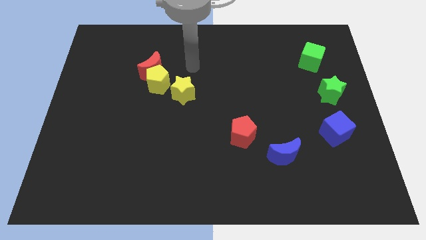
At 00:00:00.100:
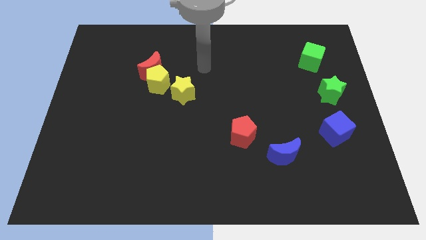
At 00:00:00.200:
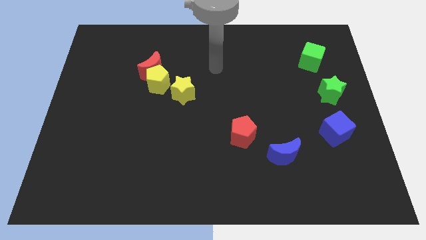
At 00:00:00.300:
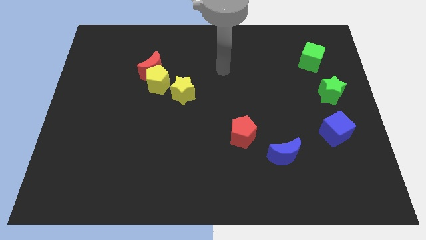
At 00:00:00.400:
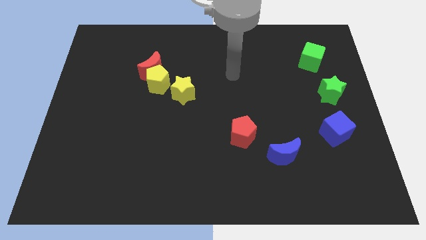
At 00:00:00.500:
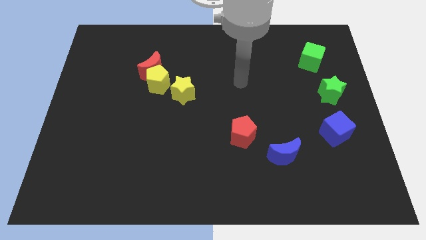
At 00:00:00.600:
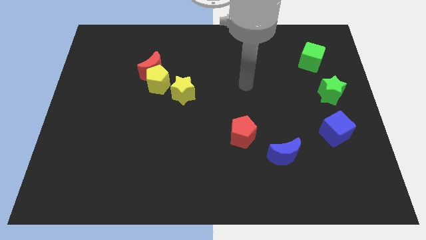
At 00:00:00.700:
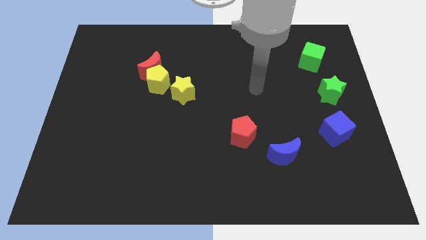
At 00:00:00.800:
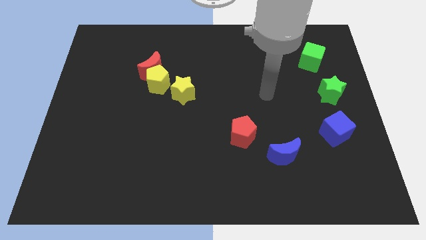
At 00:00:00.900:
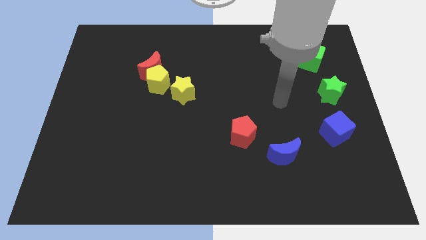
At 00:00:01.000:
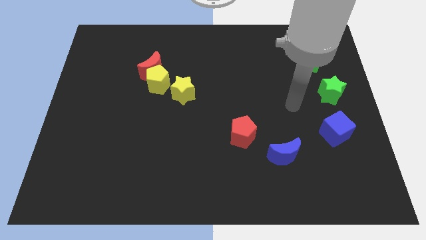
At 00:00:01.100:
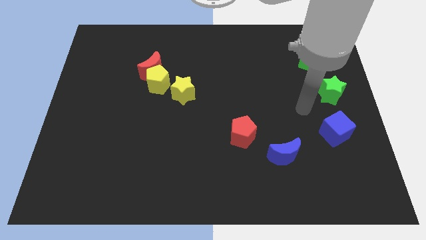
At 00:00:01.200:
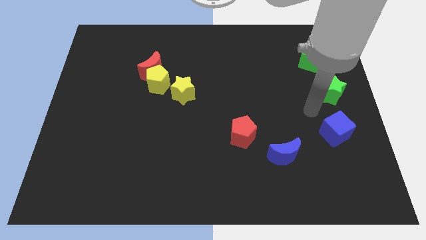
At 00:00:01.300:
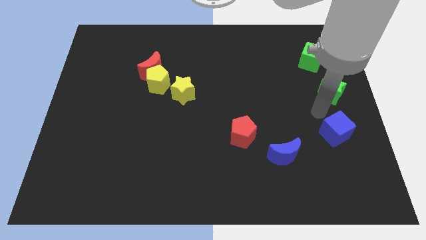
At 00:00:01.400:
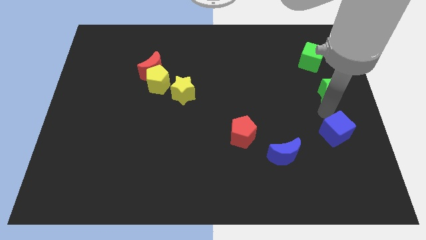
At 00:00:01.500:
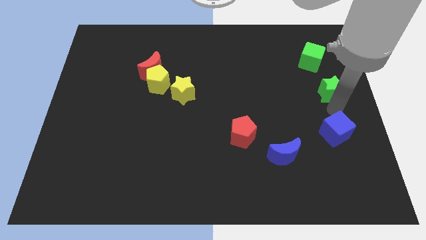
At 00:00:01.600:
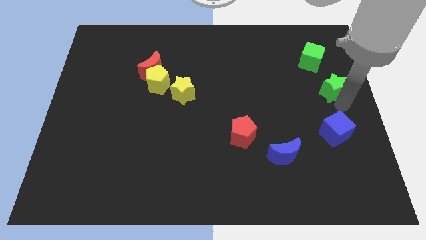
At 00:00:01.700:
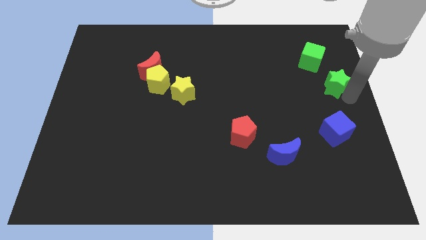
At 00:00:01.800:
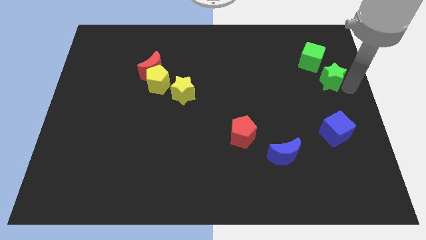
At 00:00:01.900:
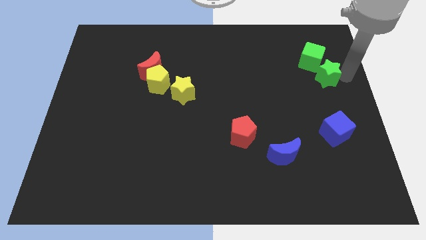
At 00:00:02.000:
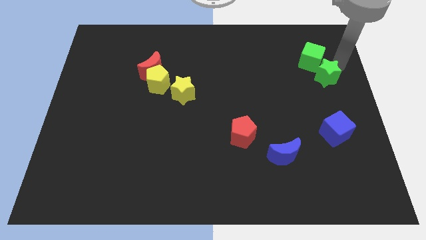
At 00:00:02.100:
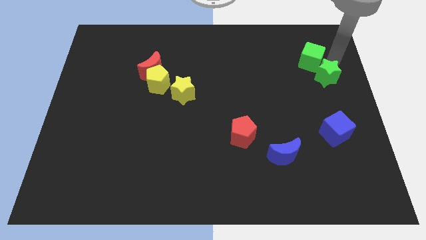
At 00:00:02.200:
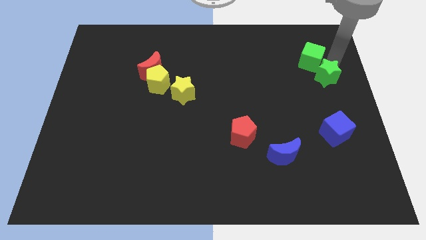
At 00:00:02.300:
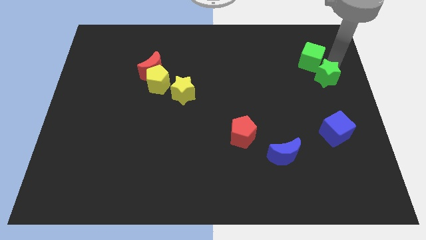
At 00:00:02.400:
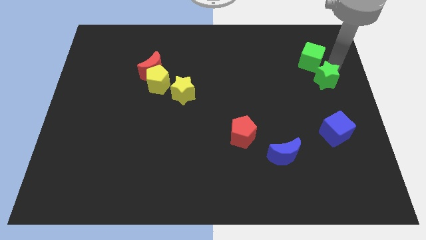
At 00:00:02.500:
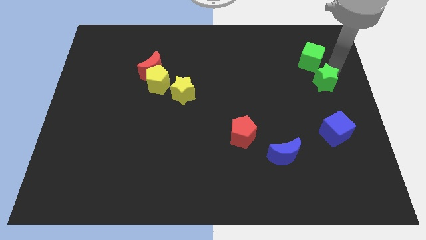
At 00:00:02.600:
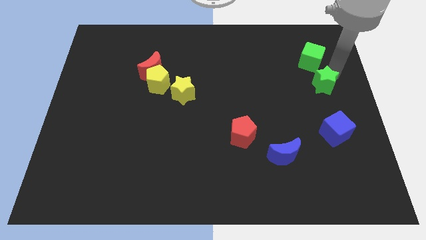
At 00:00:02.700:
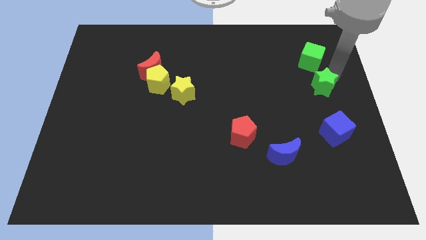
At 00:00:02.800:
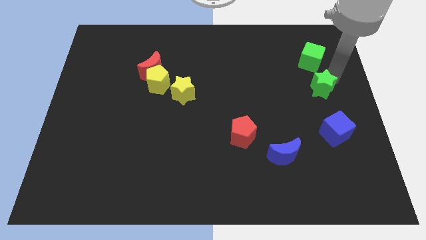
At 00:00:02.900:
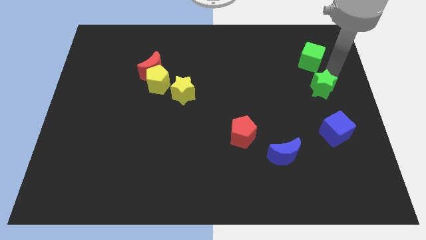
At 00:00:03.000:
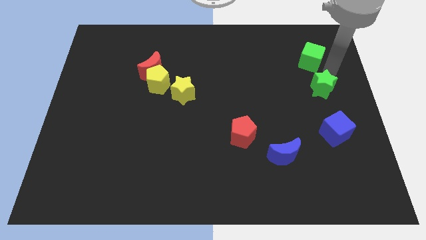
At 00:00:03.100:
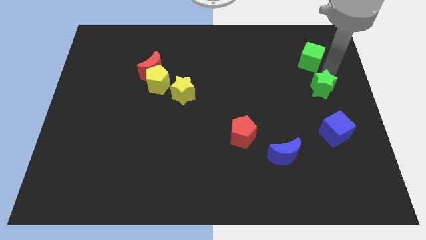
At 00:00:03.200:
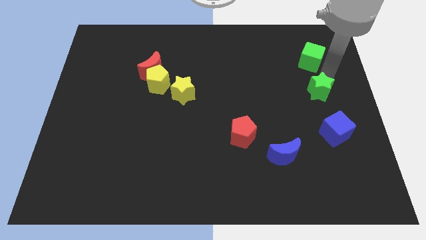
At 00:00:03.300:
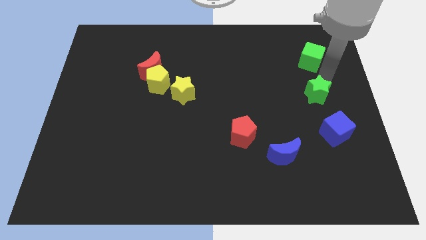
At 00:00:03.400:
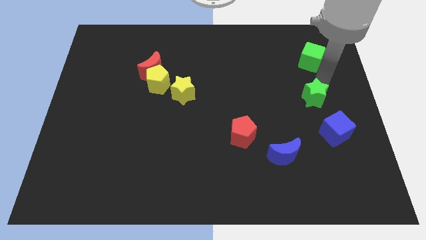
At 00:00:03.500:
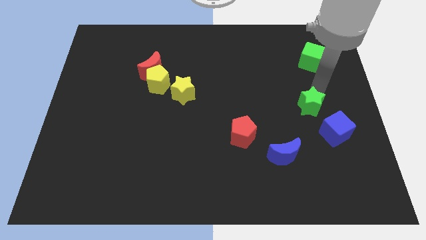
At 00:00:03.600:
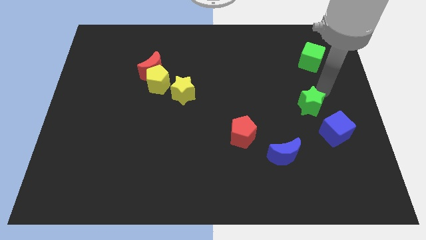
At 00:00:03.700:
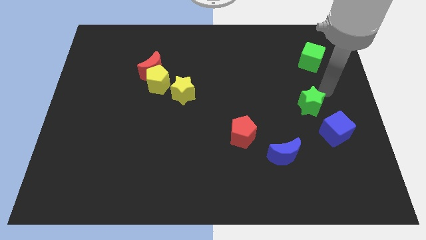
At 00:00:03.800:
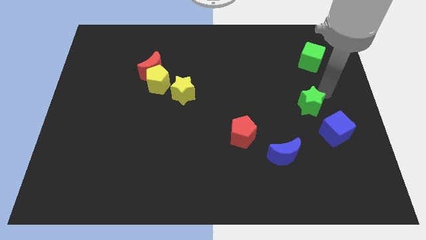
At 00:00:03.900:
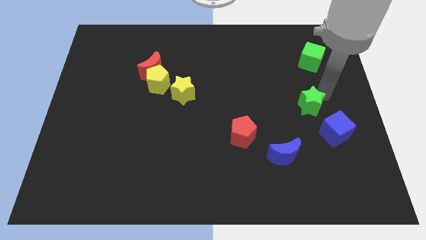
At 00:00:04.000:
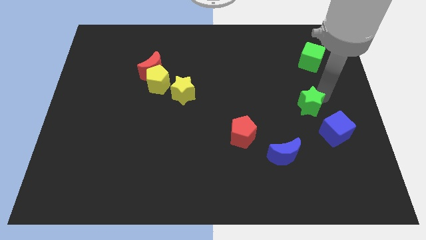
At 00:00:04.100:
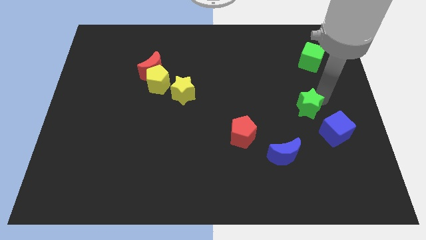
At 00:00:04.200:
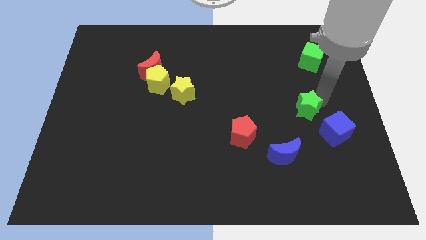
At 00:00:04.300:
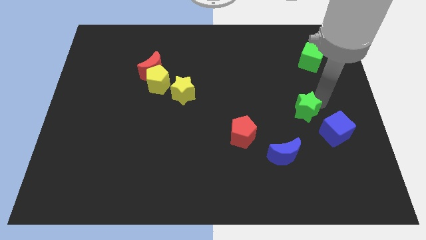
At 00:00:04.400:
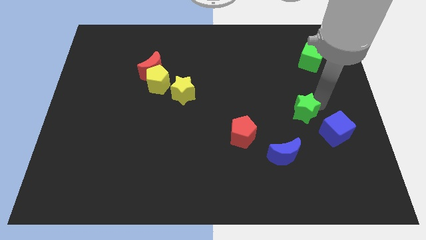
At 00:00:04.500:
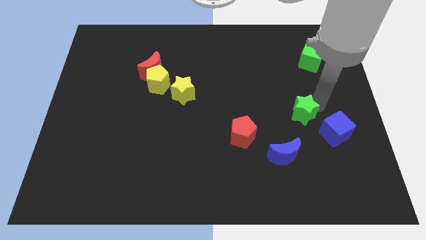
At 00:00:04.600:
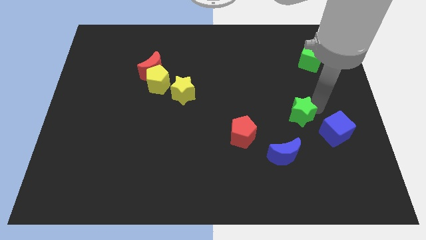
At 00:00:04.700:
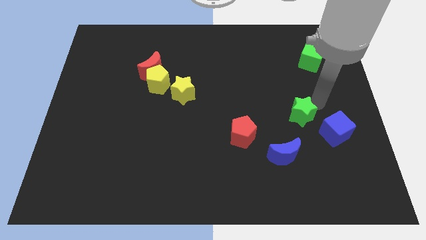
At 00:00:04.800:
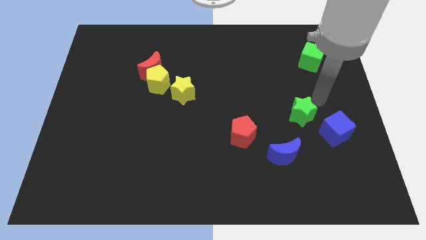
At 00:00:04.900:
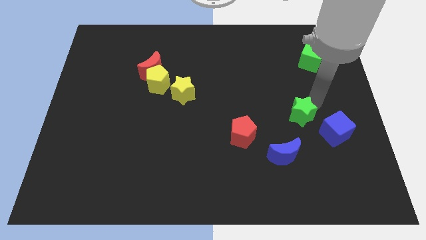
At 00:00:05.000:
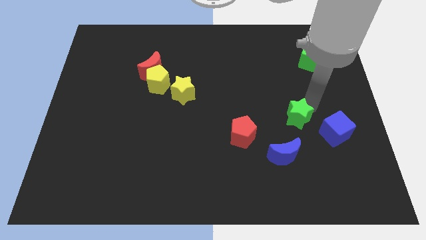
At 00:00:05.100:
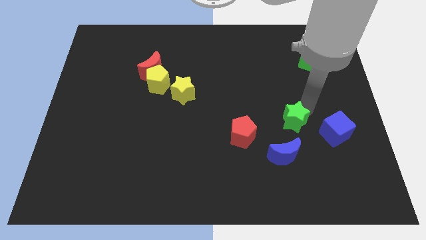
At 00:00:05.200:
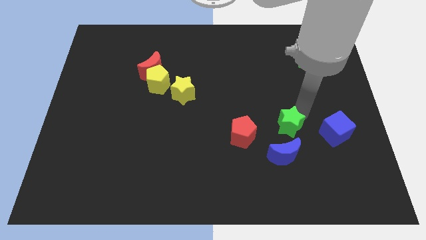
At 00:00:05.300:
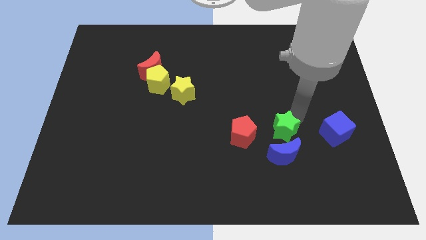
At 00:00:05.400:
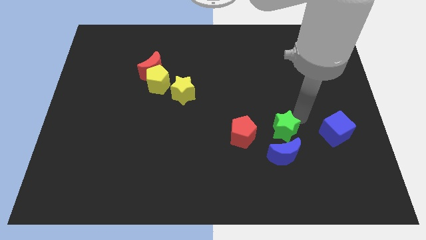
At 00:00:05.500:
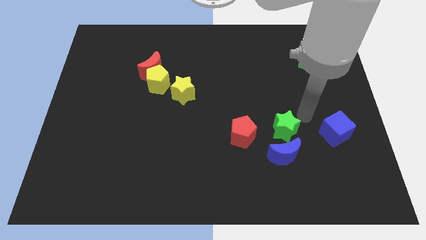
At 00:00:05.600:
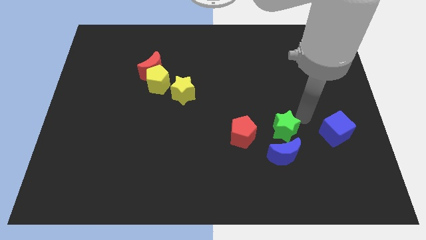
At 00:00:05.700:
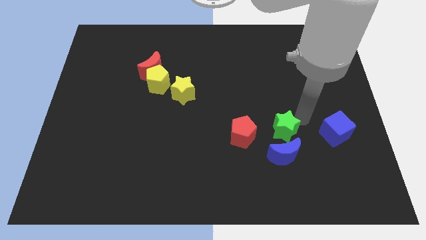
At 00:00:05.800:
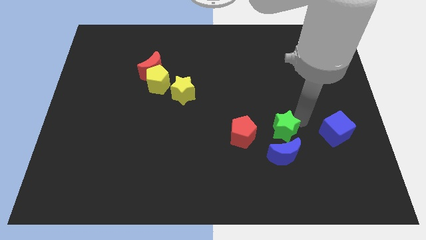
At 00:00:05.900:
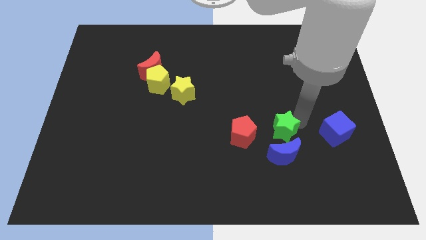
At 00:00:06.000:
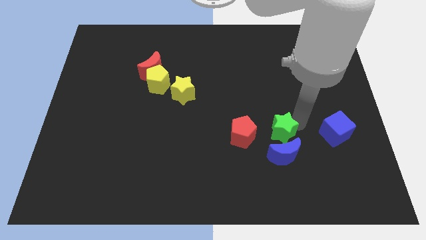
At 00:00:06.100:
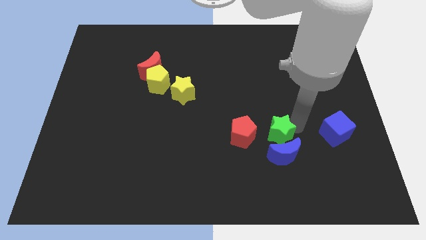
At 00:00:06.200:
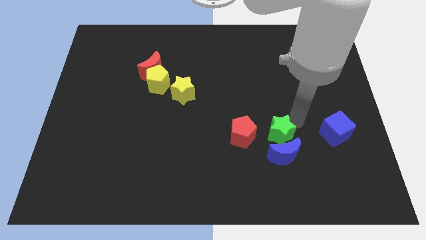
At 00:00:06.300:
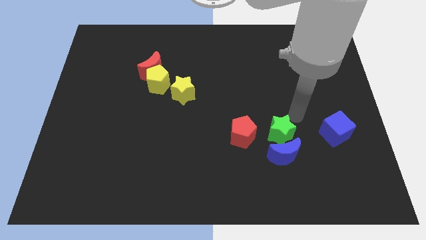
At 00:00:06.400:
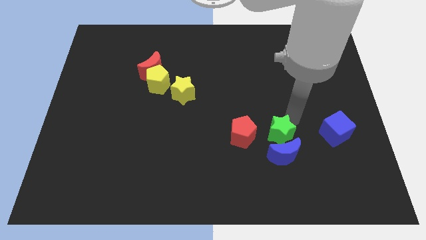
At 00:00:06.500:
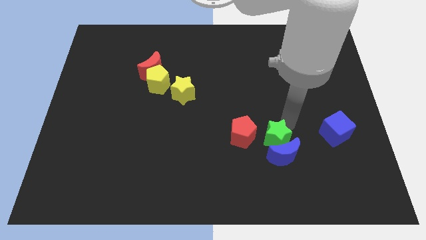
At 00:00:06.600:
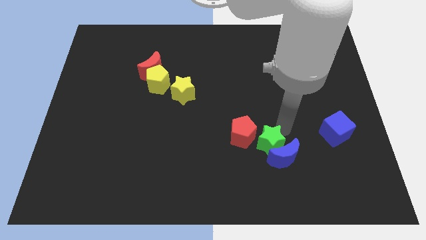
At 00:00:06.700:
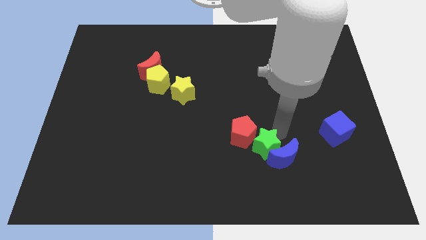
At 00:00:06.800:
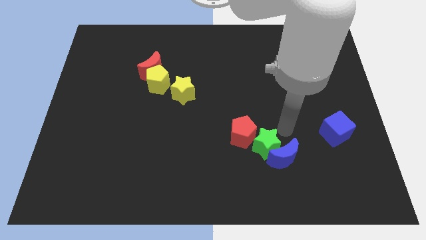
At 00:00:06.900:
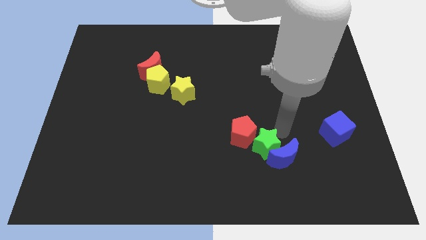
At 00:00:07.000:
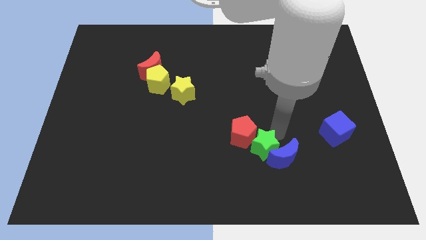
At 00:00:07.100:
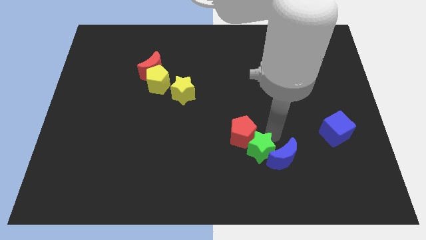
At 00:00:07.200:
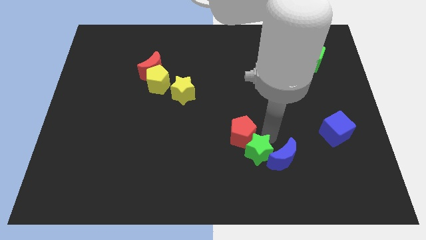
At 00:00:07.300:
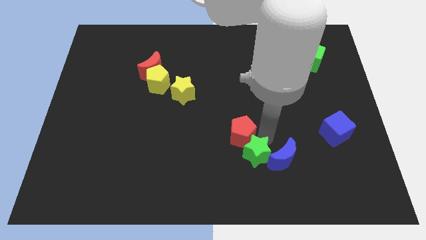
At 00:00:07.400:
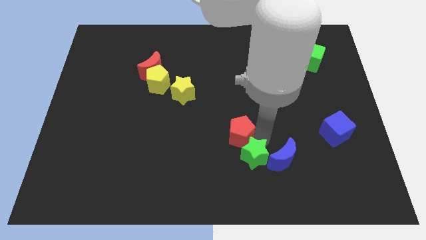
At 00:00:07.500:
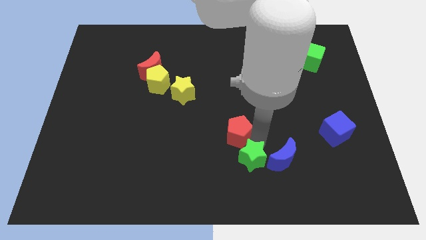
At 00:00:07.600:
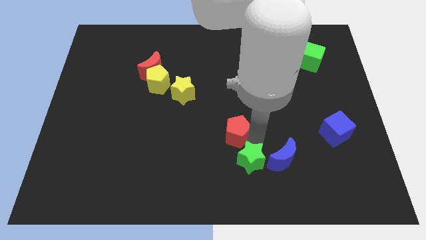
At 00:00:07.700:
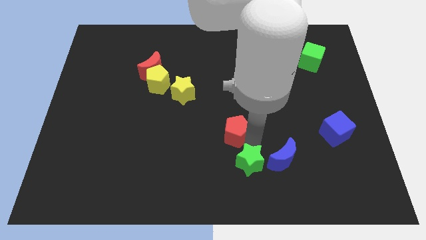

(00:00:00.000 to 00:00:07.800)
slide the green star to the bottom side
